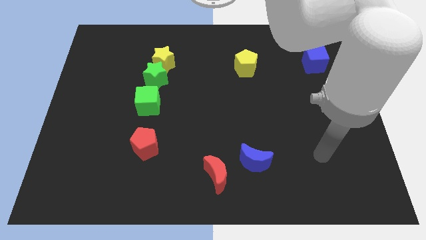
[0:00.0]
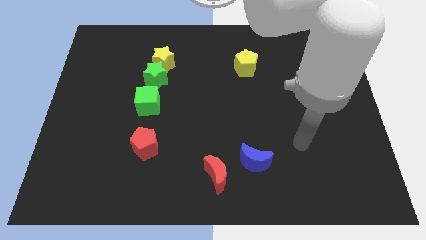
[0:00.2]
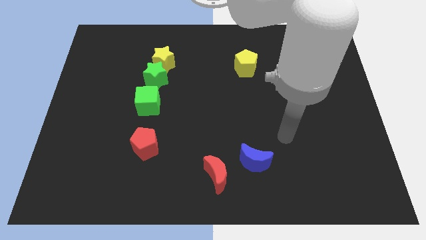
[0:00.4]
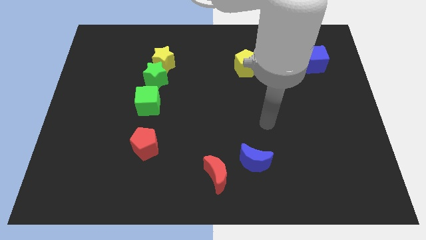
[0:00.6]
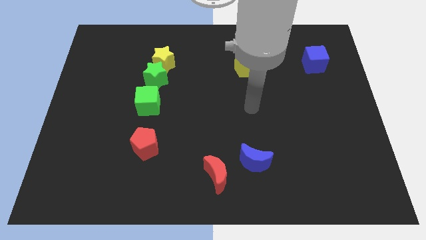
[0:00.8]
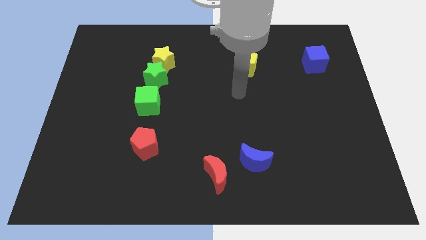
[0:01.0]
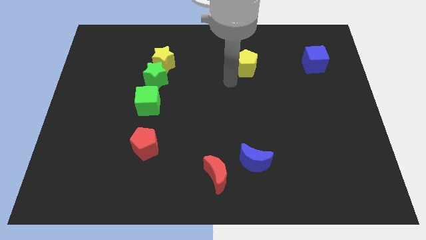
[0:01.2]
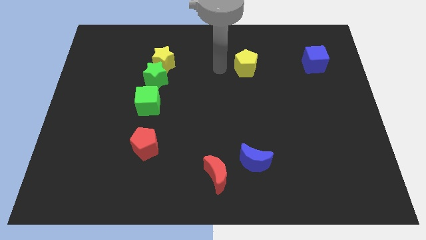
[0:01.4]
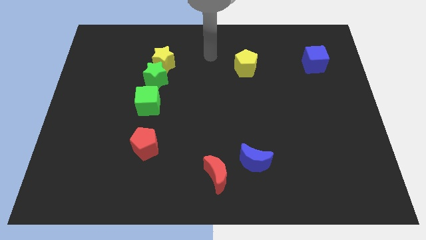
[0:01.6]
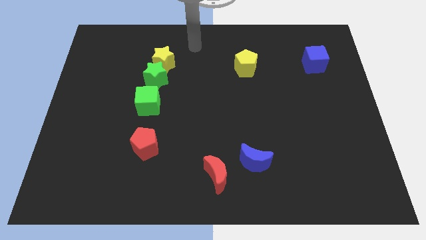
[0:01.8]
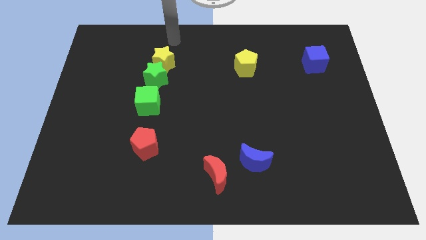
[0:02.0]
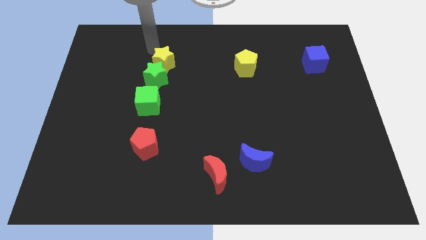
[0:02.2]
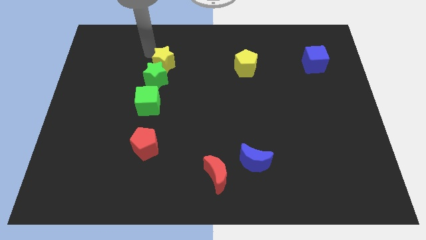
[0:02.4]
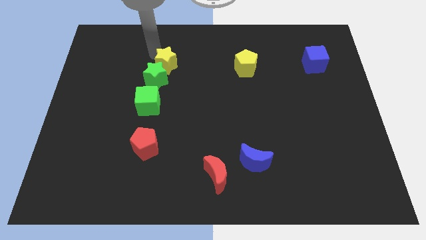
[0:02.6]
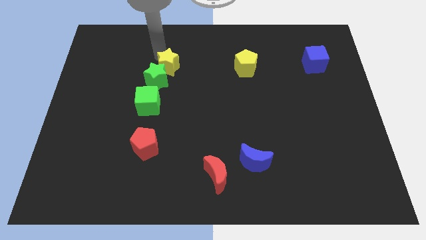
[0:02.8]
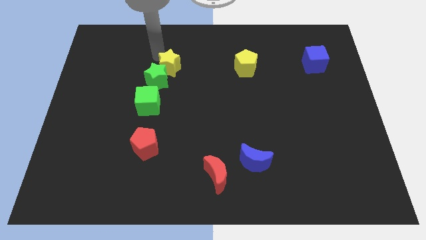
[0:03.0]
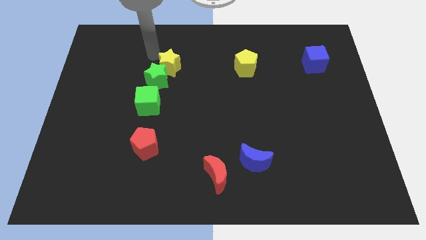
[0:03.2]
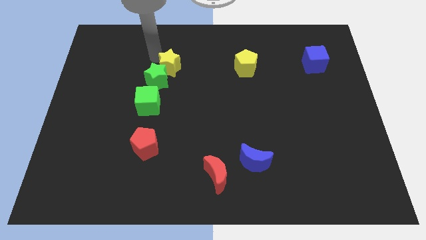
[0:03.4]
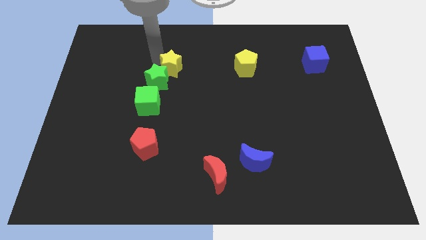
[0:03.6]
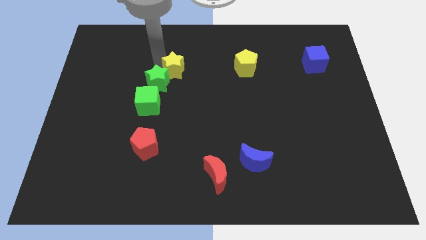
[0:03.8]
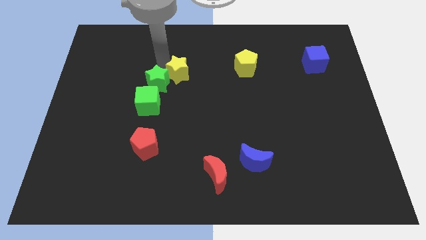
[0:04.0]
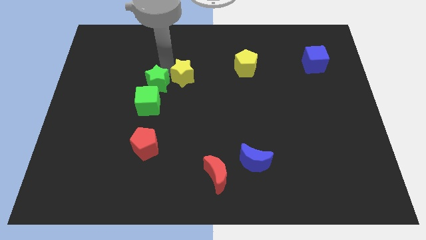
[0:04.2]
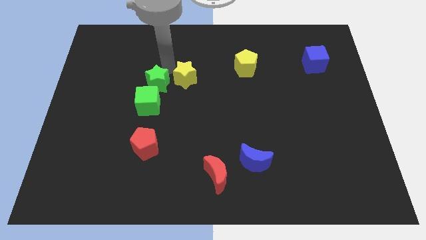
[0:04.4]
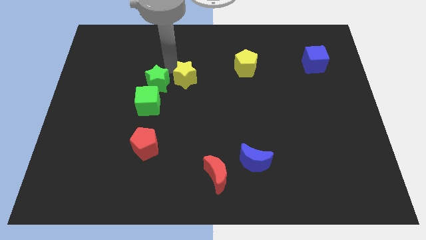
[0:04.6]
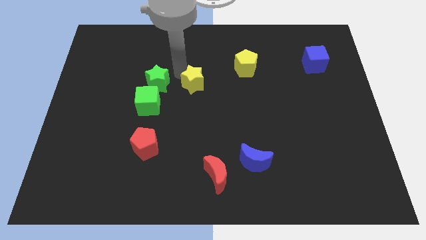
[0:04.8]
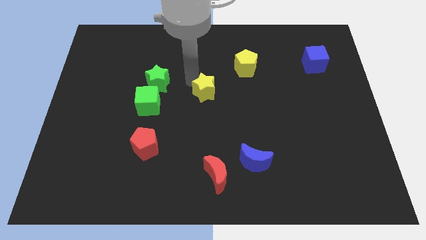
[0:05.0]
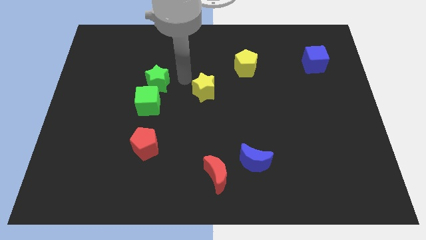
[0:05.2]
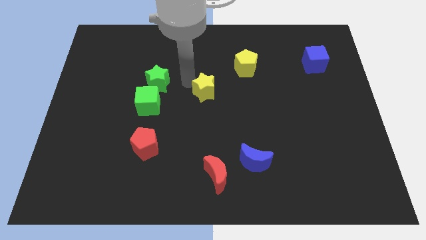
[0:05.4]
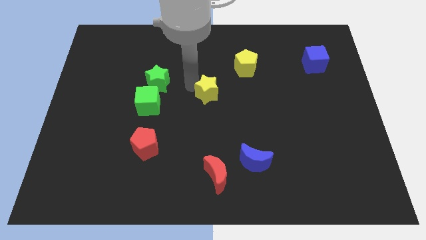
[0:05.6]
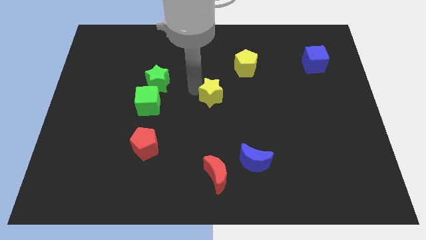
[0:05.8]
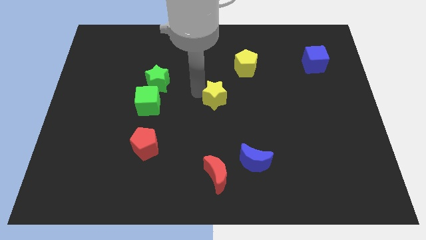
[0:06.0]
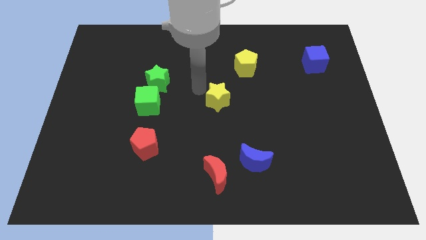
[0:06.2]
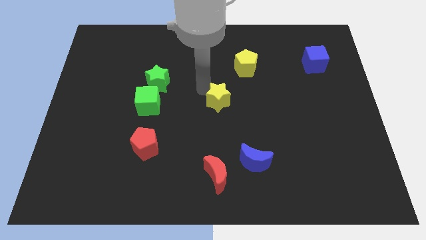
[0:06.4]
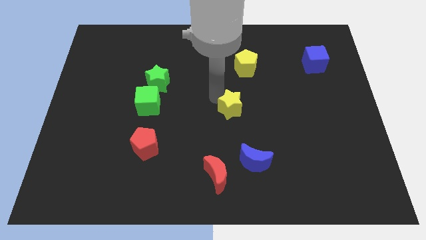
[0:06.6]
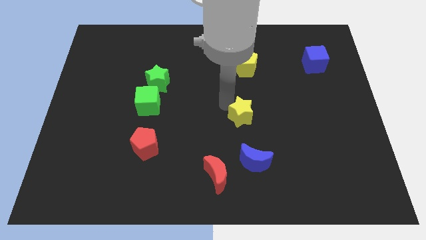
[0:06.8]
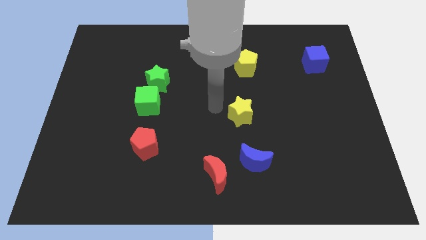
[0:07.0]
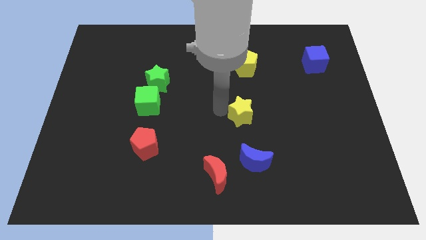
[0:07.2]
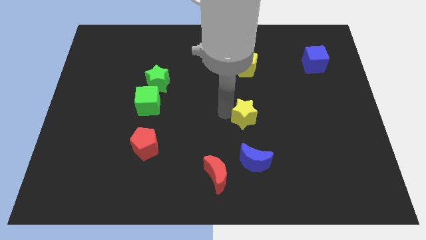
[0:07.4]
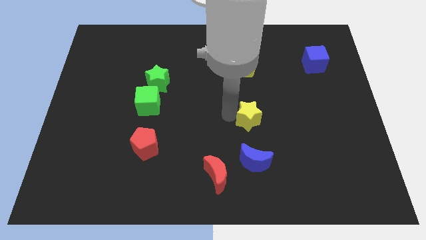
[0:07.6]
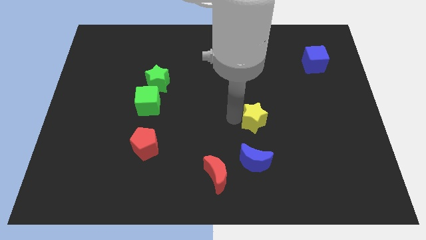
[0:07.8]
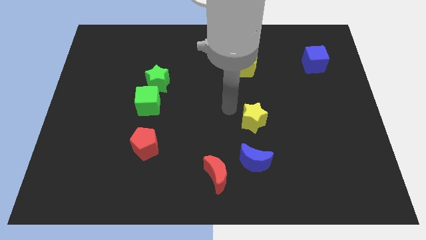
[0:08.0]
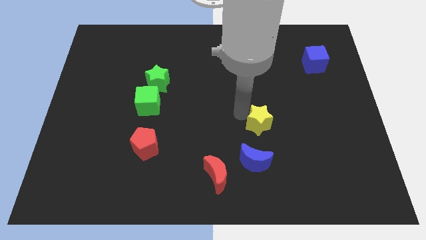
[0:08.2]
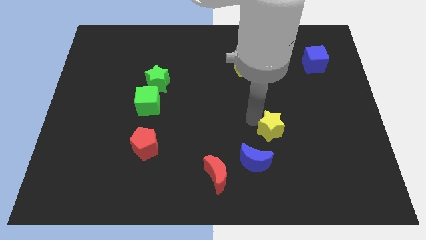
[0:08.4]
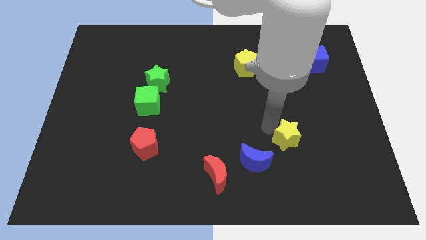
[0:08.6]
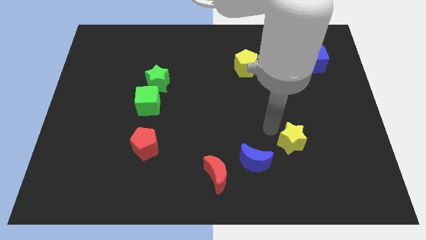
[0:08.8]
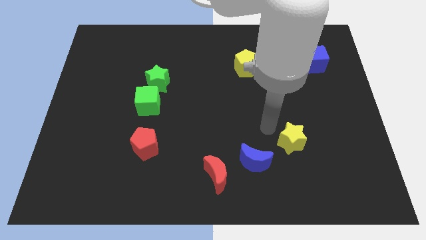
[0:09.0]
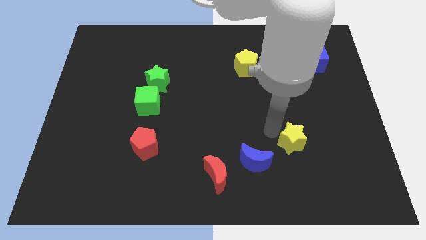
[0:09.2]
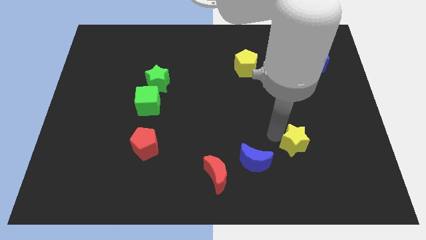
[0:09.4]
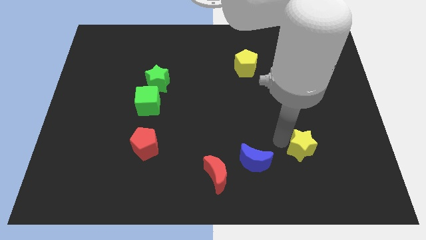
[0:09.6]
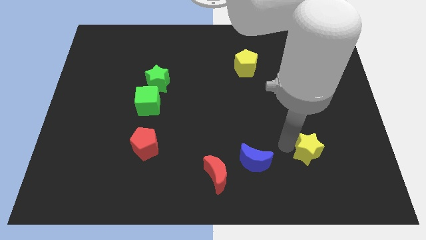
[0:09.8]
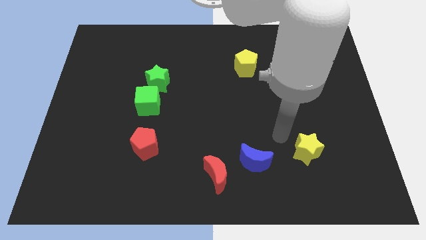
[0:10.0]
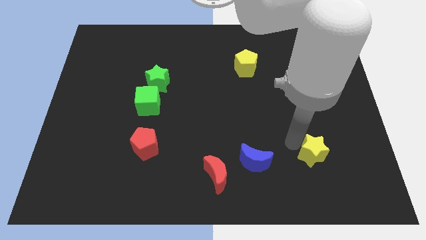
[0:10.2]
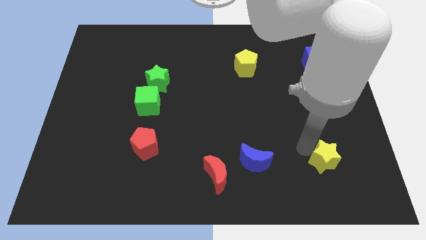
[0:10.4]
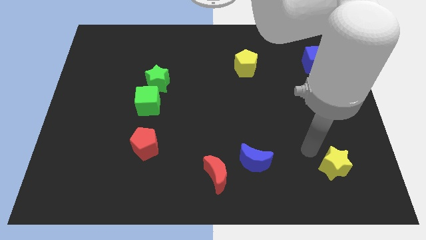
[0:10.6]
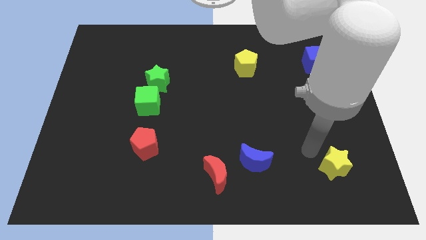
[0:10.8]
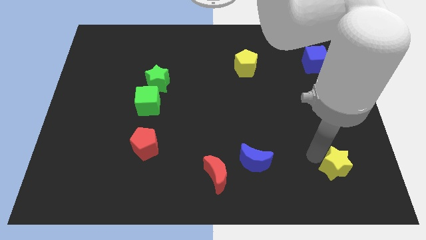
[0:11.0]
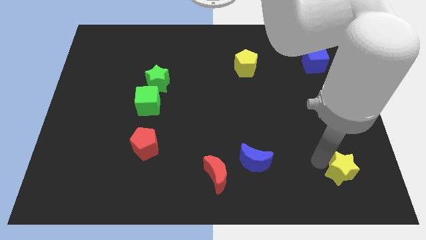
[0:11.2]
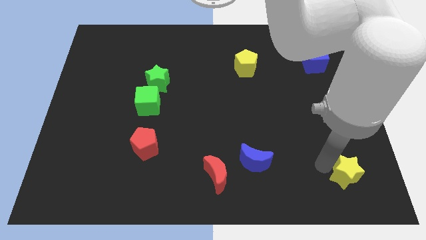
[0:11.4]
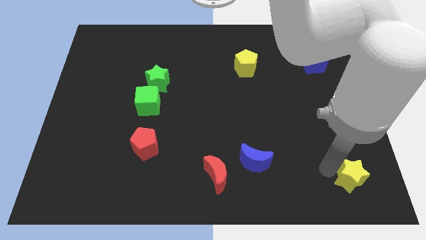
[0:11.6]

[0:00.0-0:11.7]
put the yellow star to the lower right corner
